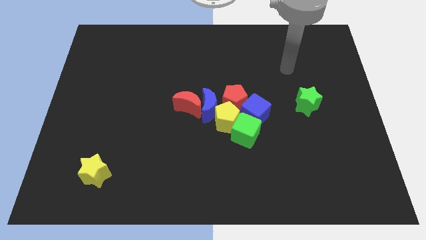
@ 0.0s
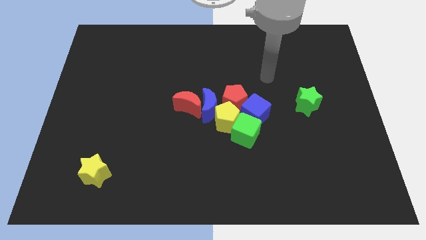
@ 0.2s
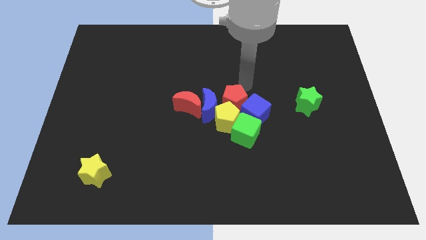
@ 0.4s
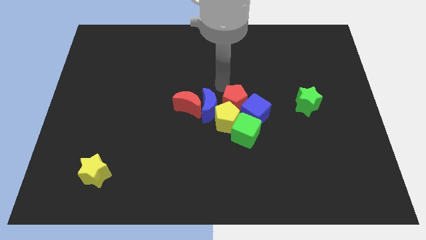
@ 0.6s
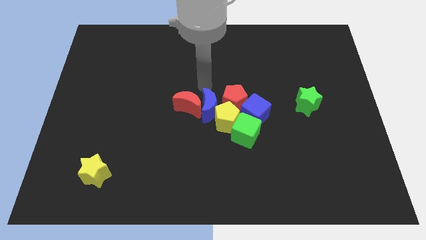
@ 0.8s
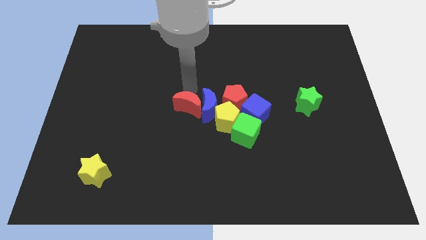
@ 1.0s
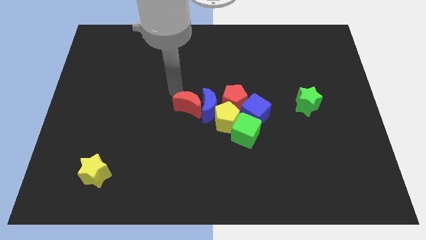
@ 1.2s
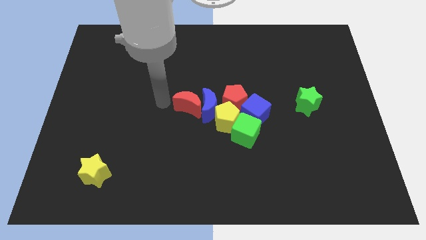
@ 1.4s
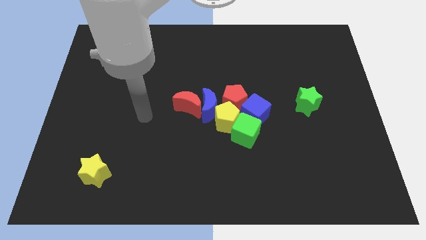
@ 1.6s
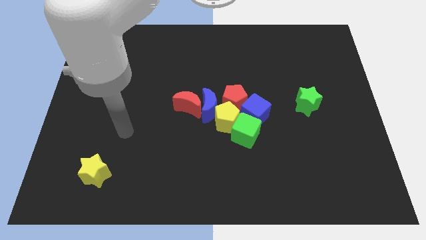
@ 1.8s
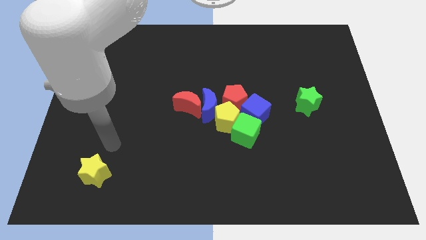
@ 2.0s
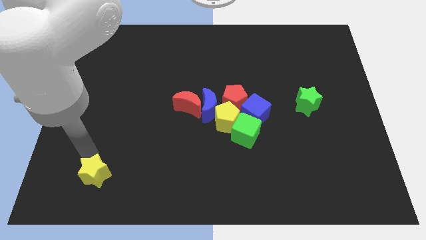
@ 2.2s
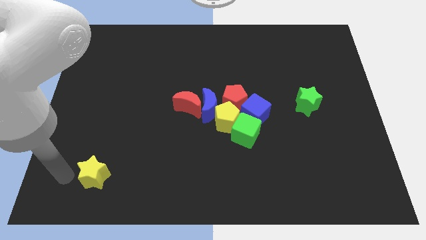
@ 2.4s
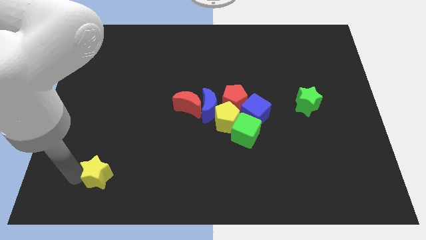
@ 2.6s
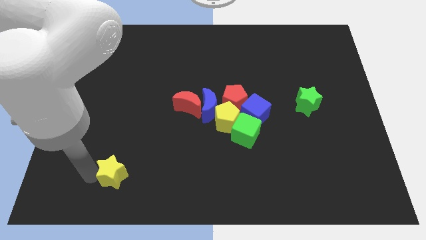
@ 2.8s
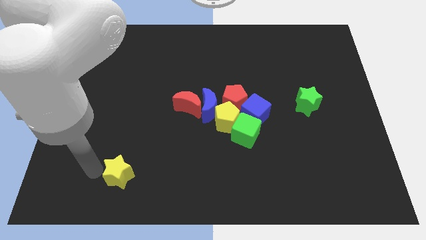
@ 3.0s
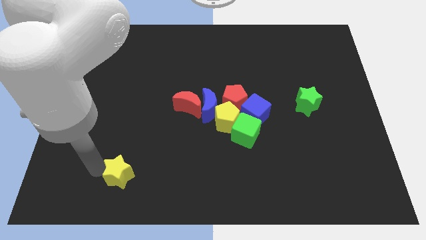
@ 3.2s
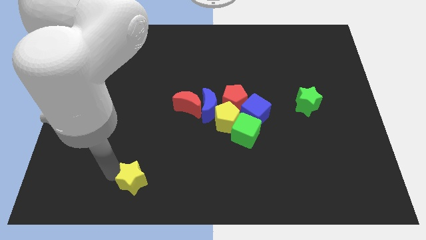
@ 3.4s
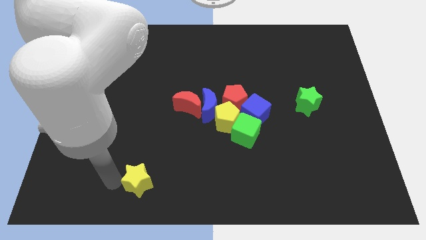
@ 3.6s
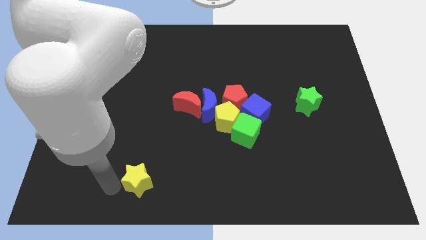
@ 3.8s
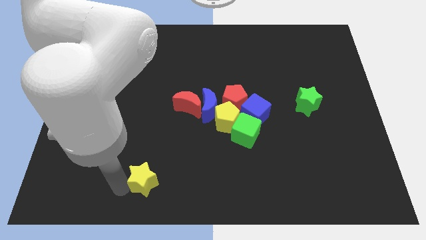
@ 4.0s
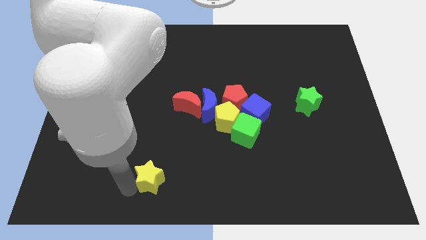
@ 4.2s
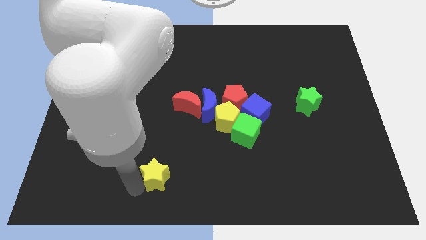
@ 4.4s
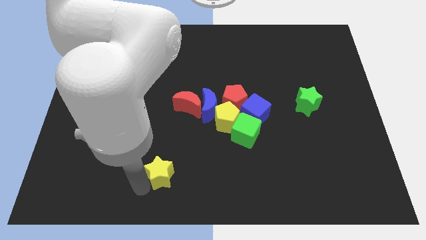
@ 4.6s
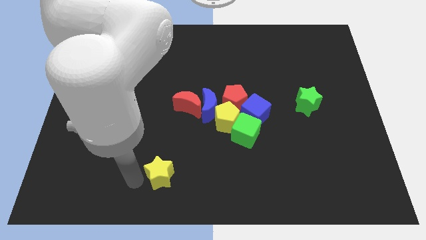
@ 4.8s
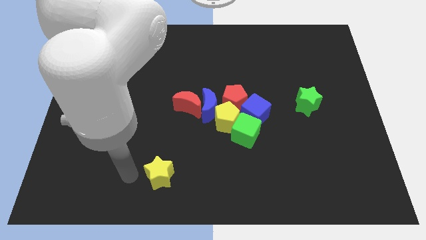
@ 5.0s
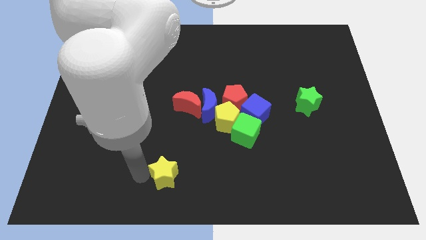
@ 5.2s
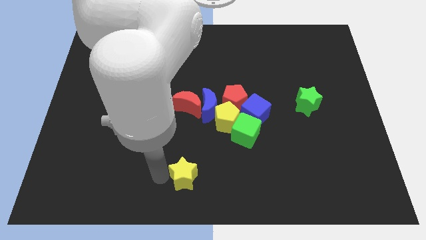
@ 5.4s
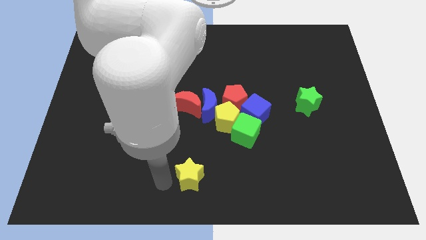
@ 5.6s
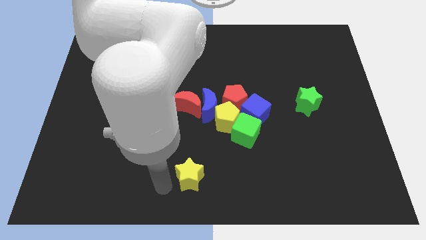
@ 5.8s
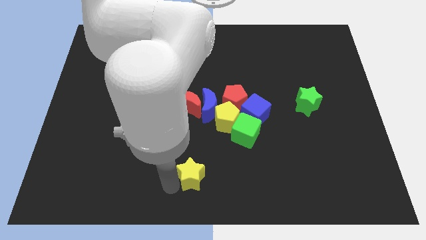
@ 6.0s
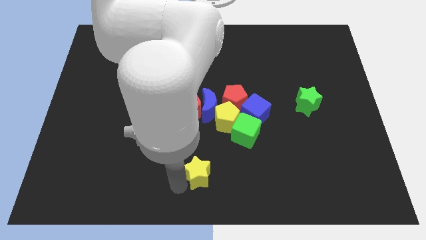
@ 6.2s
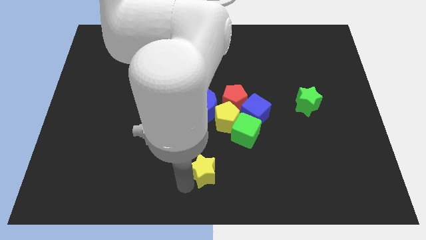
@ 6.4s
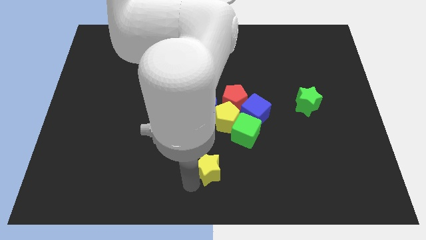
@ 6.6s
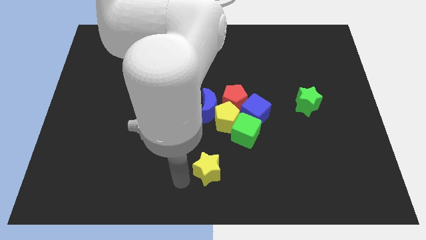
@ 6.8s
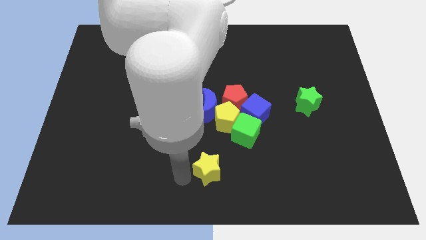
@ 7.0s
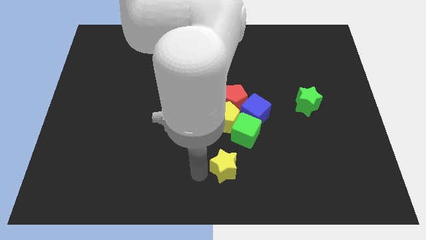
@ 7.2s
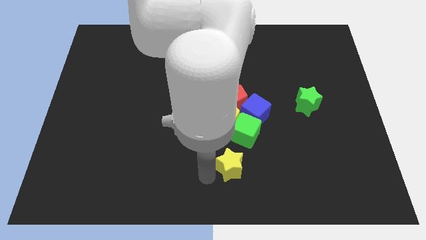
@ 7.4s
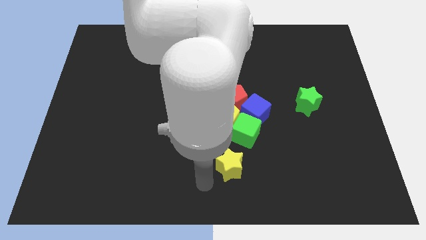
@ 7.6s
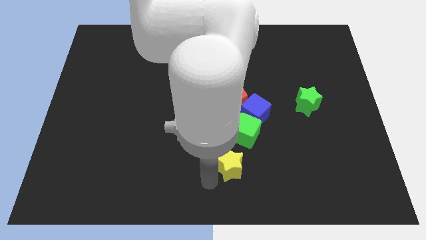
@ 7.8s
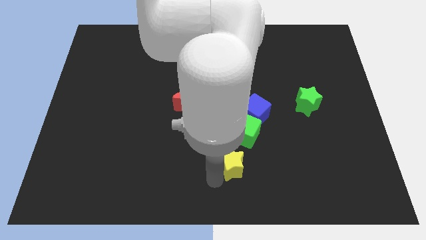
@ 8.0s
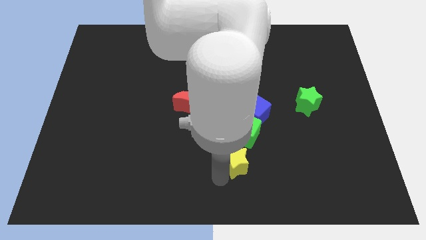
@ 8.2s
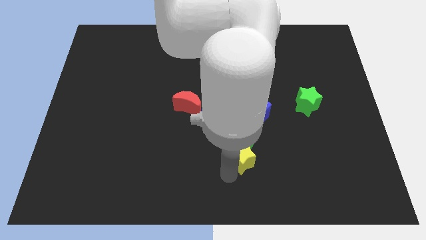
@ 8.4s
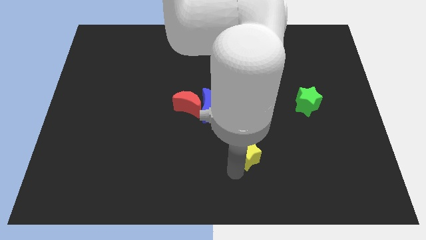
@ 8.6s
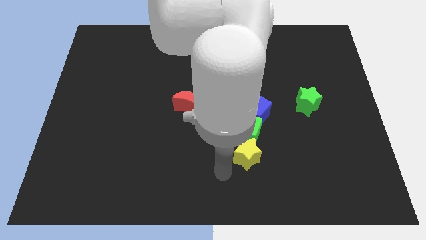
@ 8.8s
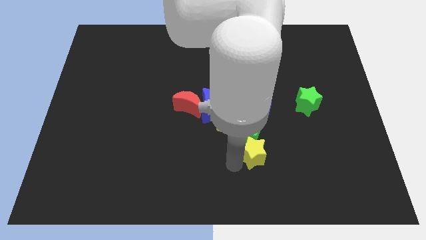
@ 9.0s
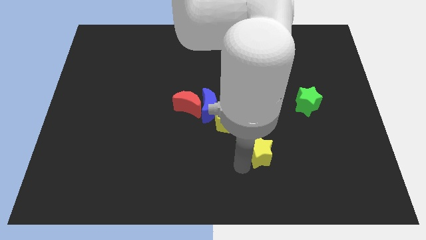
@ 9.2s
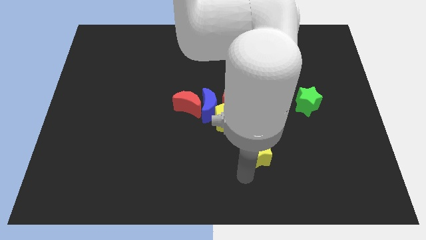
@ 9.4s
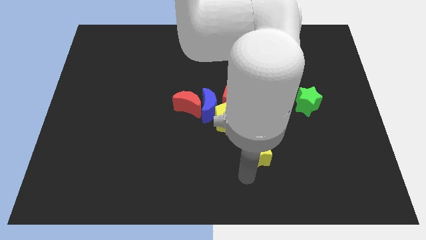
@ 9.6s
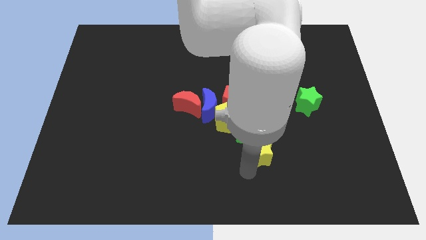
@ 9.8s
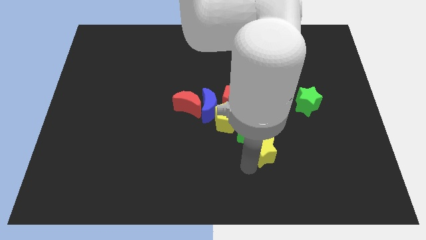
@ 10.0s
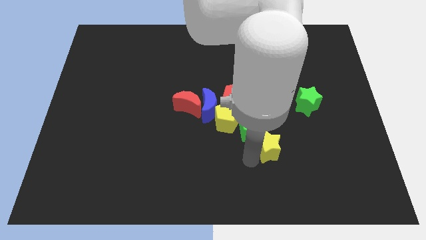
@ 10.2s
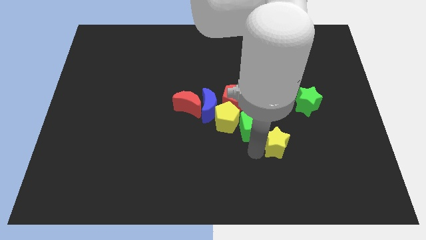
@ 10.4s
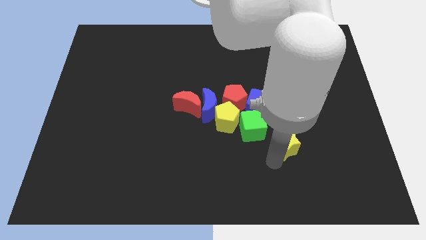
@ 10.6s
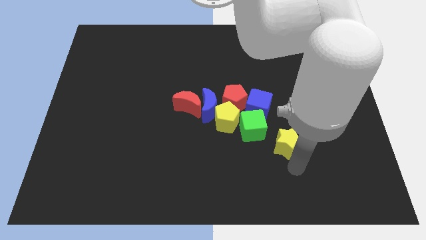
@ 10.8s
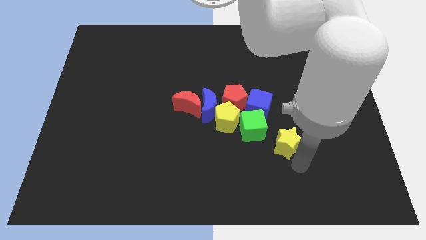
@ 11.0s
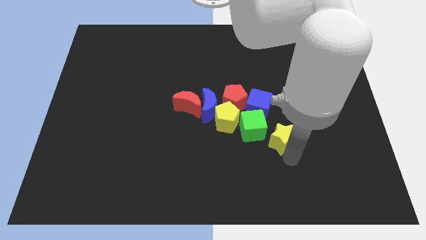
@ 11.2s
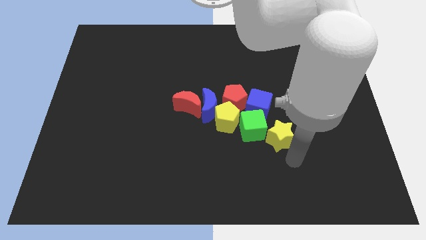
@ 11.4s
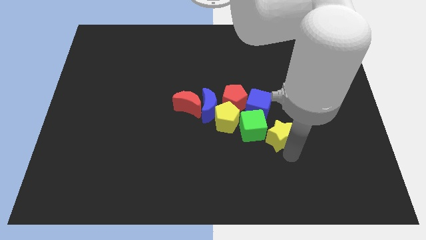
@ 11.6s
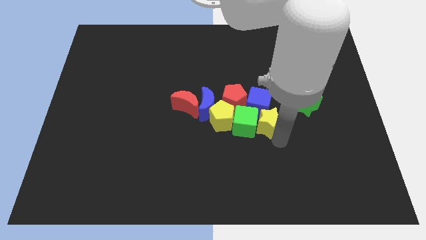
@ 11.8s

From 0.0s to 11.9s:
push the yellow star next to the blue cube
